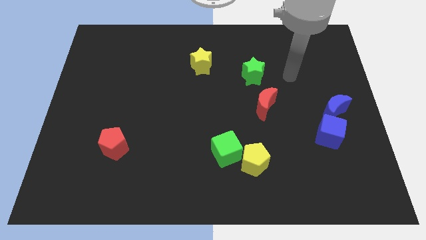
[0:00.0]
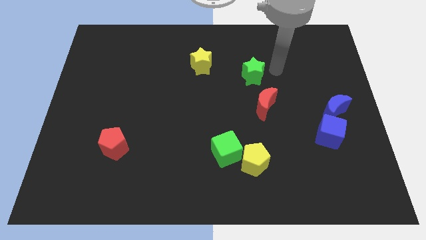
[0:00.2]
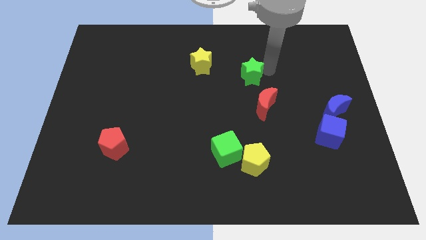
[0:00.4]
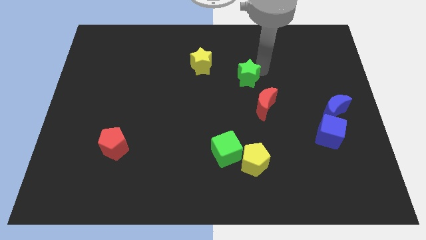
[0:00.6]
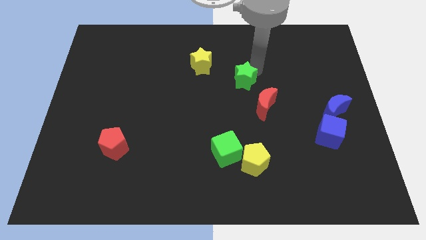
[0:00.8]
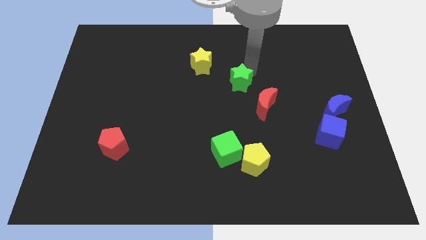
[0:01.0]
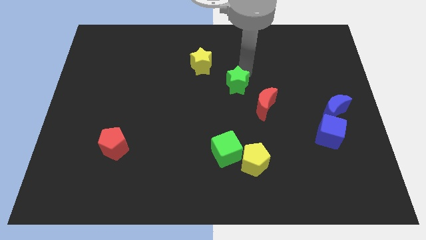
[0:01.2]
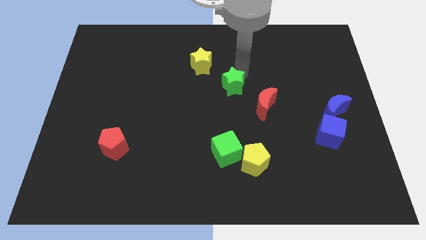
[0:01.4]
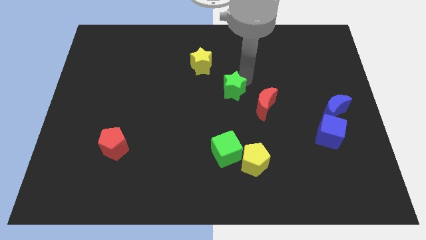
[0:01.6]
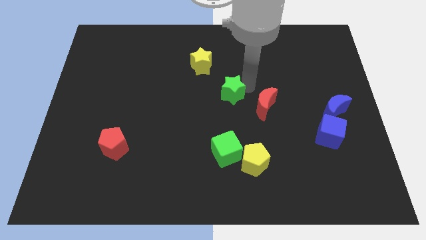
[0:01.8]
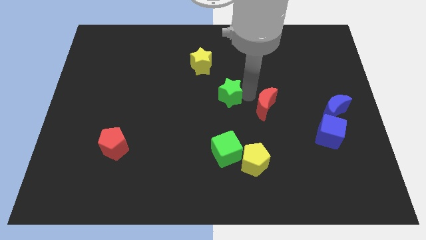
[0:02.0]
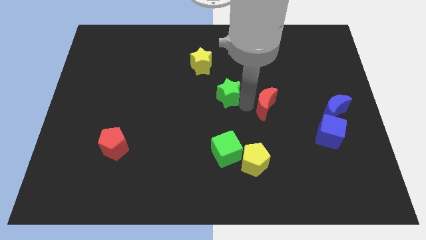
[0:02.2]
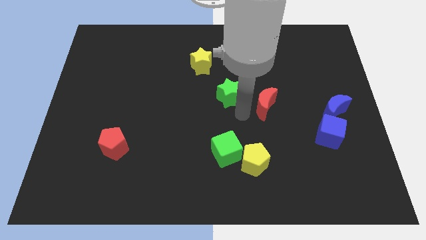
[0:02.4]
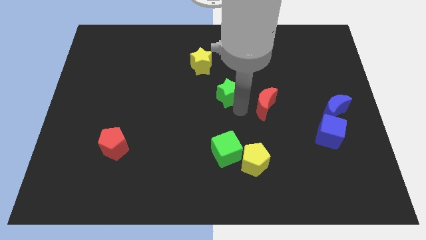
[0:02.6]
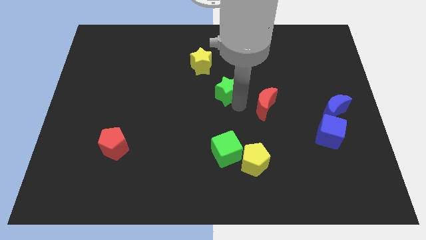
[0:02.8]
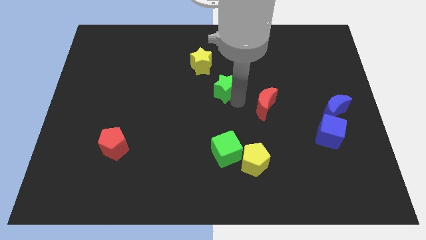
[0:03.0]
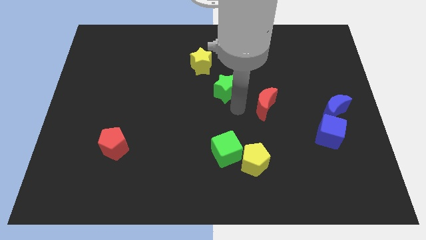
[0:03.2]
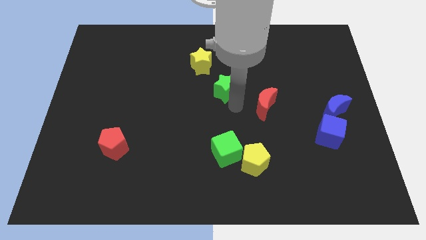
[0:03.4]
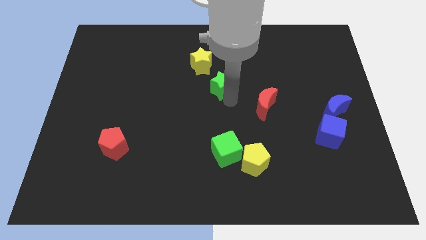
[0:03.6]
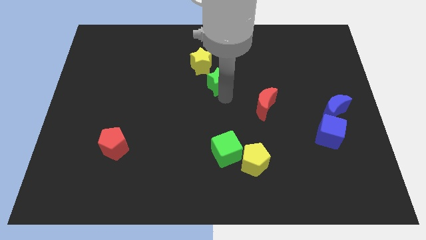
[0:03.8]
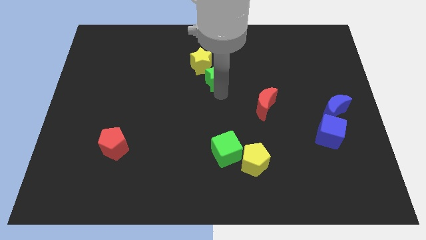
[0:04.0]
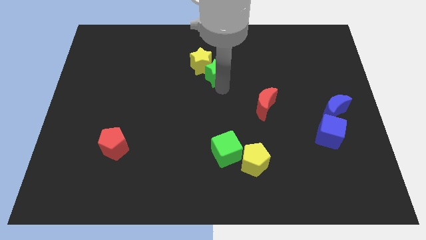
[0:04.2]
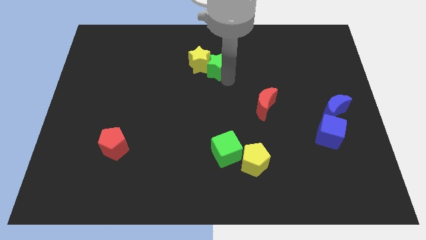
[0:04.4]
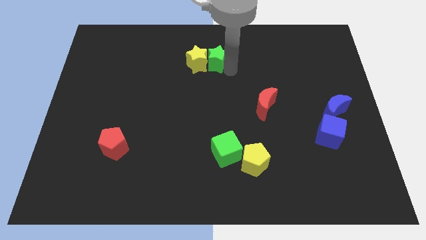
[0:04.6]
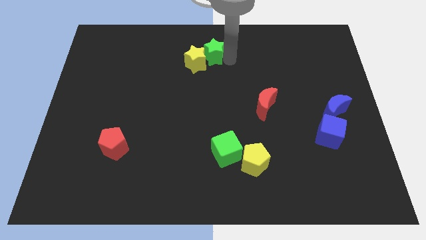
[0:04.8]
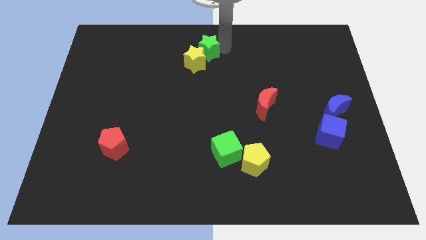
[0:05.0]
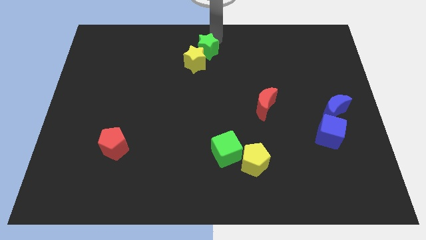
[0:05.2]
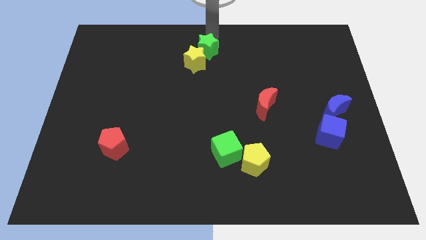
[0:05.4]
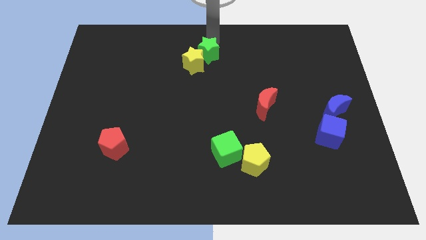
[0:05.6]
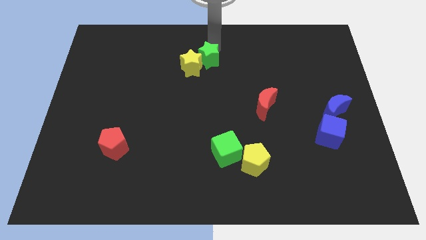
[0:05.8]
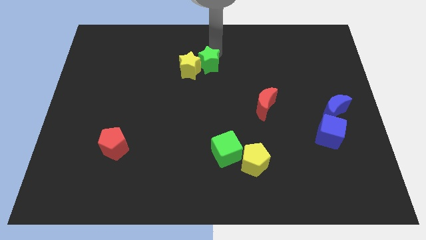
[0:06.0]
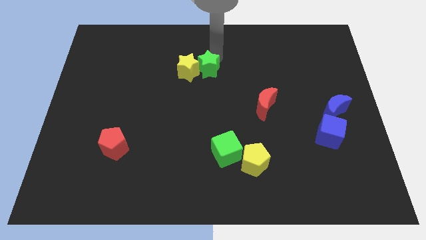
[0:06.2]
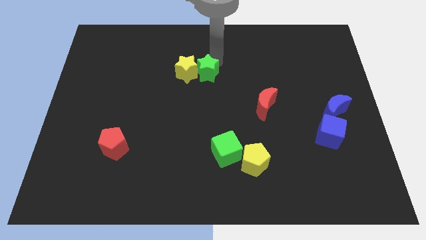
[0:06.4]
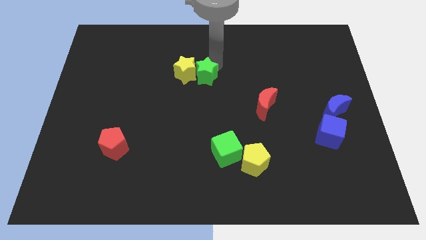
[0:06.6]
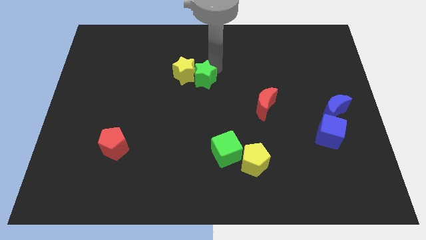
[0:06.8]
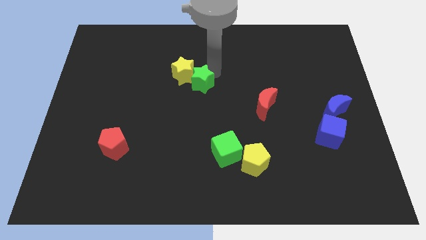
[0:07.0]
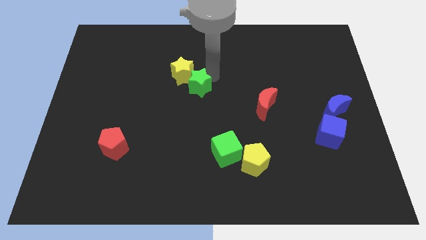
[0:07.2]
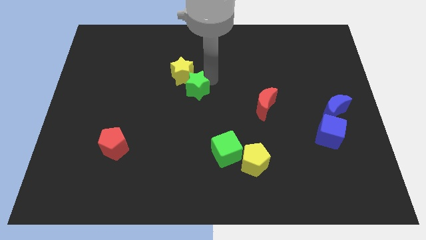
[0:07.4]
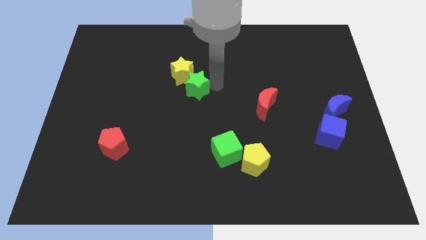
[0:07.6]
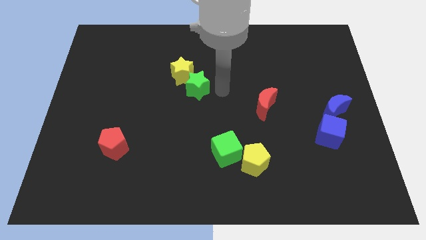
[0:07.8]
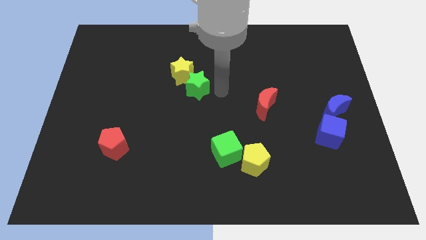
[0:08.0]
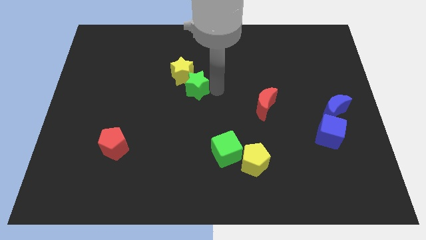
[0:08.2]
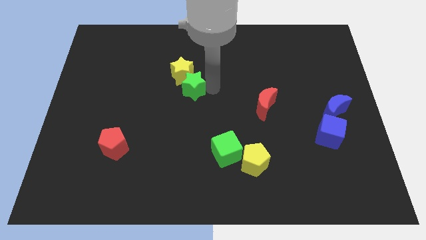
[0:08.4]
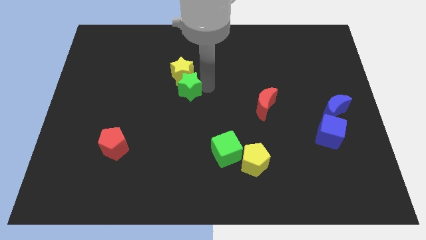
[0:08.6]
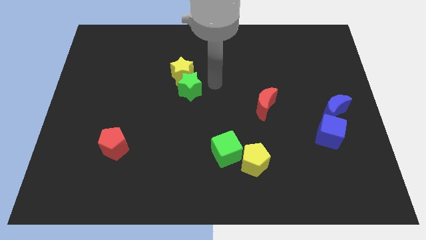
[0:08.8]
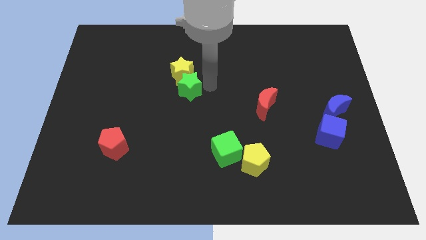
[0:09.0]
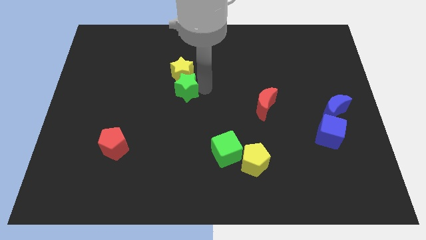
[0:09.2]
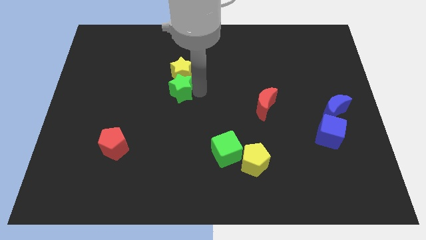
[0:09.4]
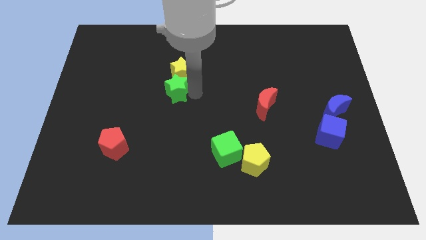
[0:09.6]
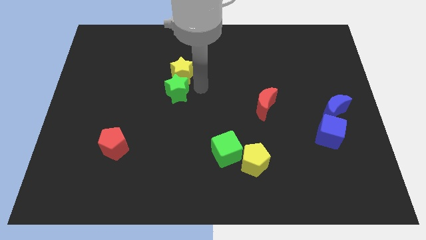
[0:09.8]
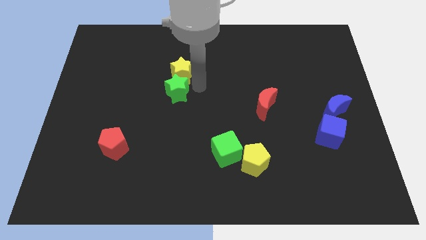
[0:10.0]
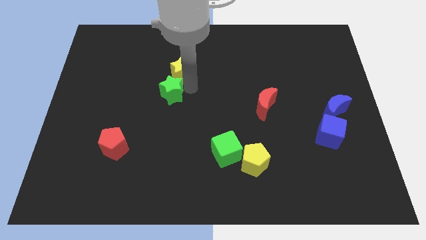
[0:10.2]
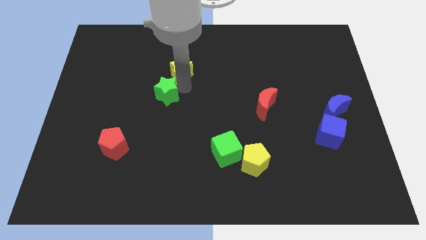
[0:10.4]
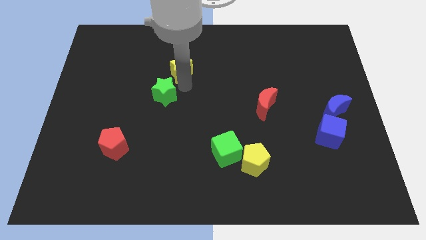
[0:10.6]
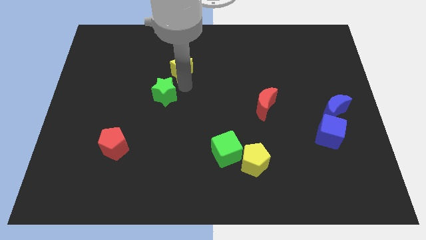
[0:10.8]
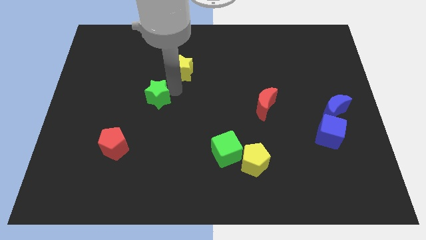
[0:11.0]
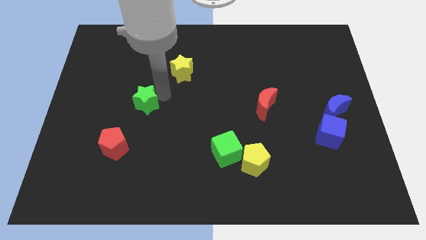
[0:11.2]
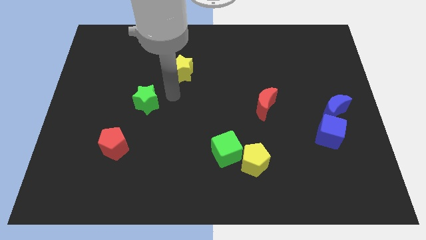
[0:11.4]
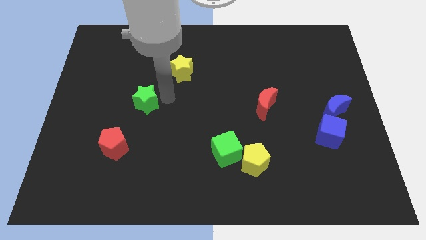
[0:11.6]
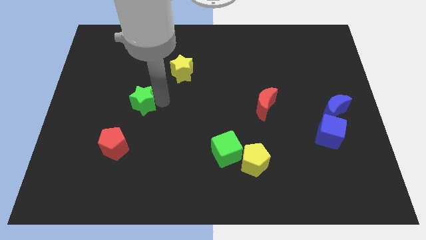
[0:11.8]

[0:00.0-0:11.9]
move the green star to the top side of the red pentagon

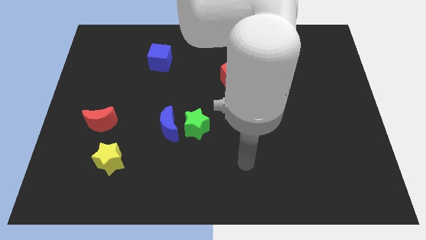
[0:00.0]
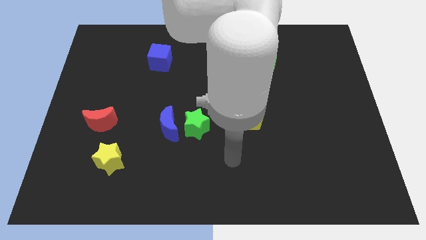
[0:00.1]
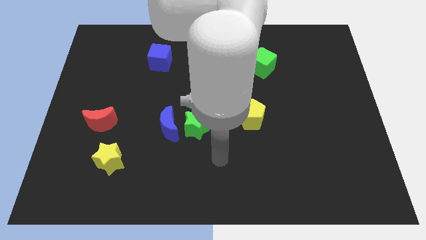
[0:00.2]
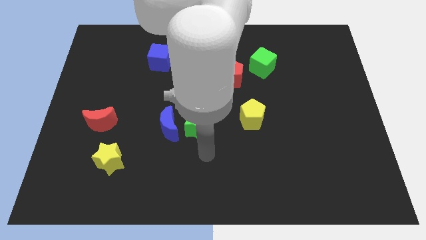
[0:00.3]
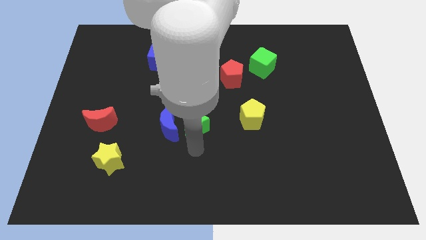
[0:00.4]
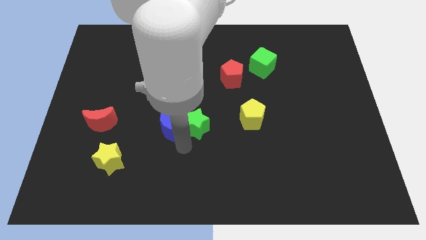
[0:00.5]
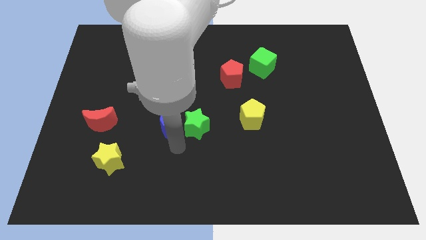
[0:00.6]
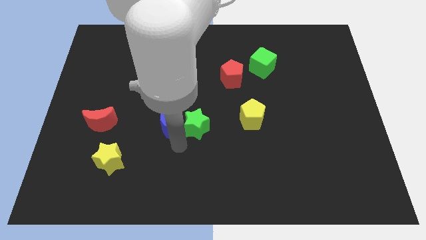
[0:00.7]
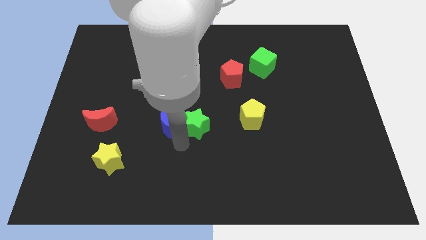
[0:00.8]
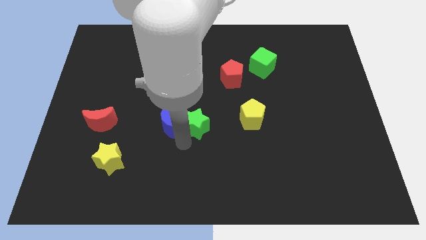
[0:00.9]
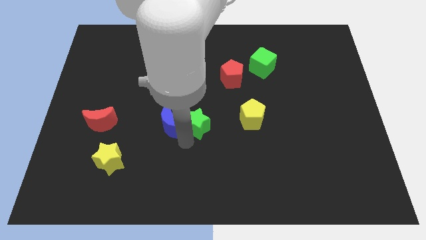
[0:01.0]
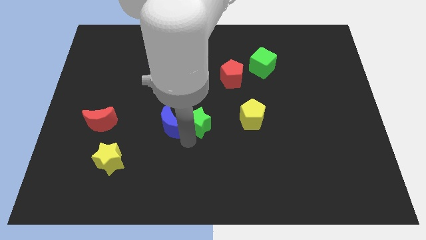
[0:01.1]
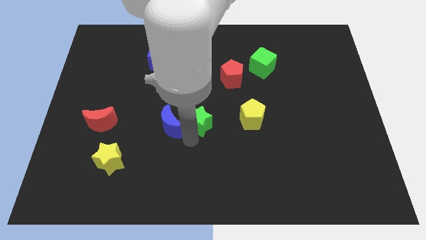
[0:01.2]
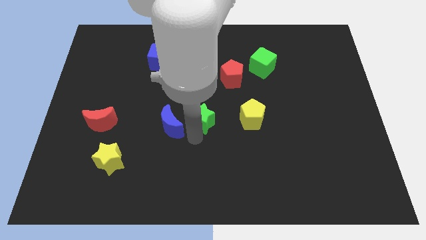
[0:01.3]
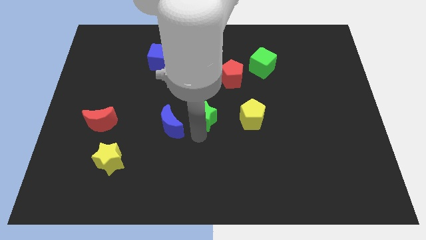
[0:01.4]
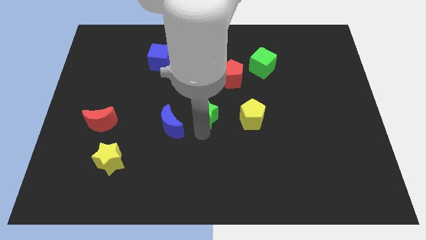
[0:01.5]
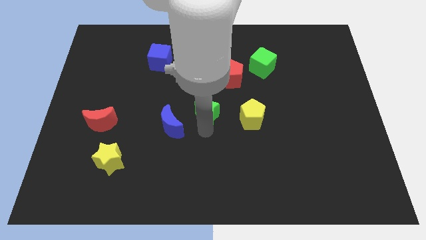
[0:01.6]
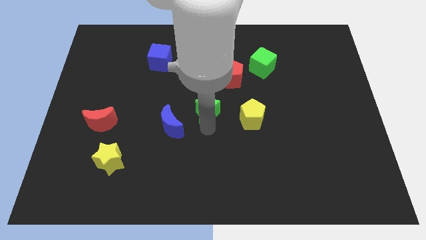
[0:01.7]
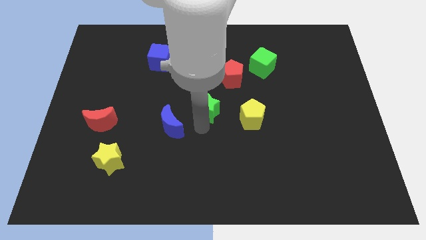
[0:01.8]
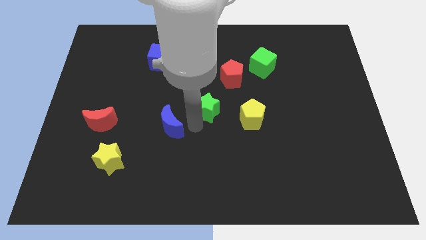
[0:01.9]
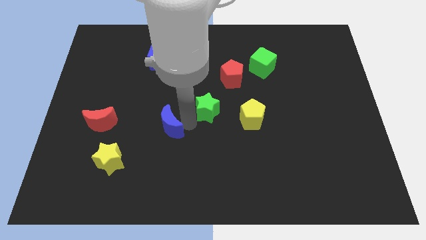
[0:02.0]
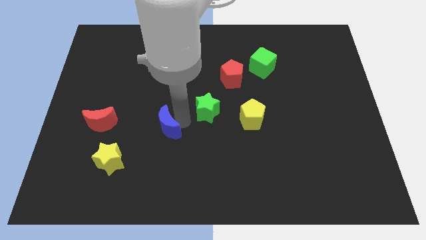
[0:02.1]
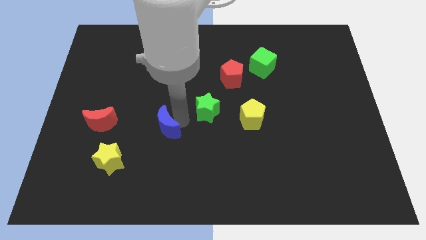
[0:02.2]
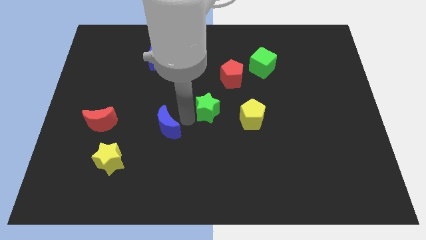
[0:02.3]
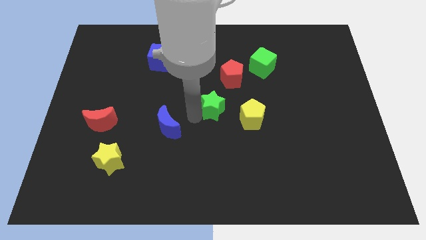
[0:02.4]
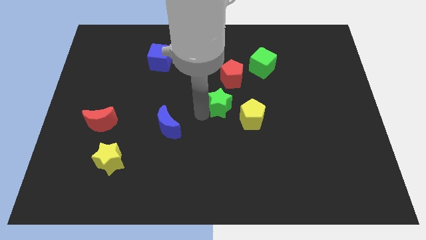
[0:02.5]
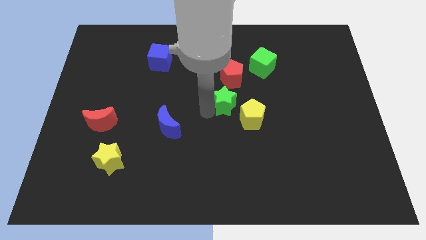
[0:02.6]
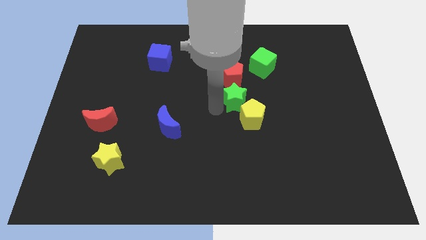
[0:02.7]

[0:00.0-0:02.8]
push the green star to the bottom right of the red pentagon
